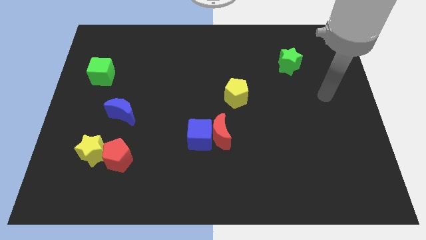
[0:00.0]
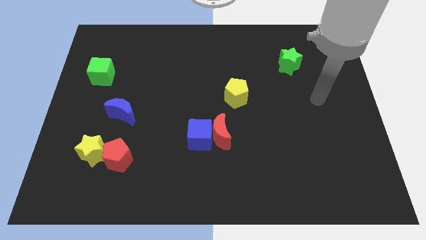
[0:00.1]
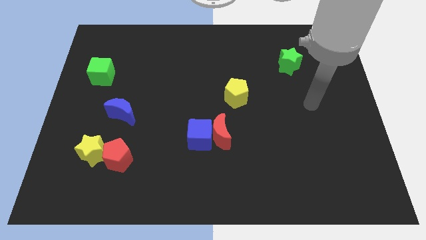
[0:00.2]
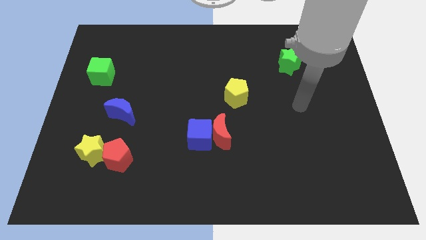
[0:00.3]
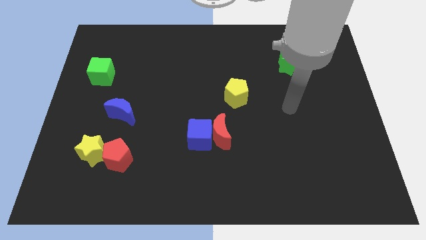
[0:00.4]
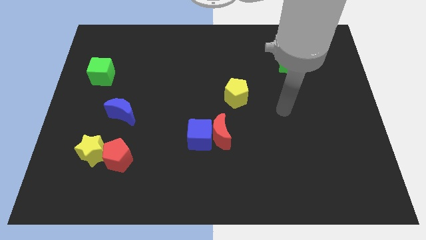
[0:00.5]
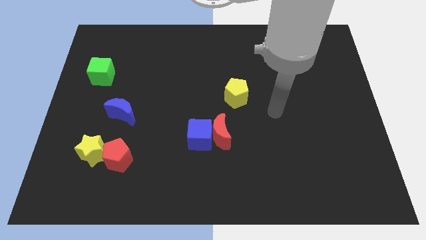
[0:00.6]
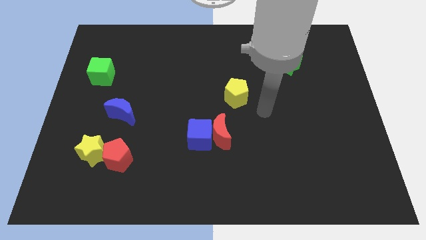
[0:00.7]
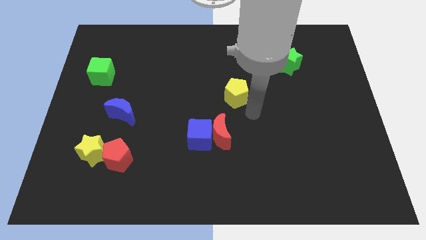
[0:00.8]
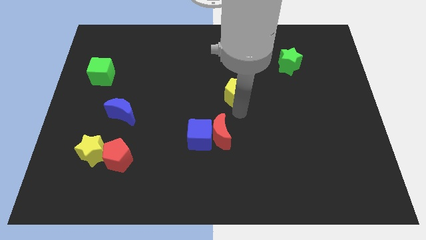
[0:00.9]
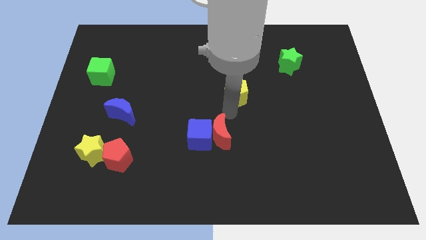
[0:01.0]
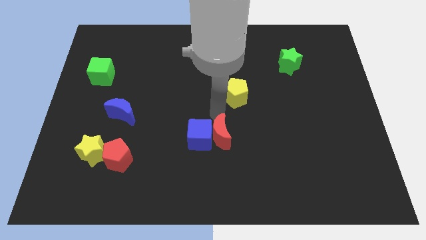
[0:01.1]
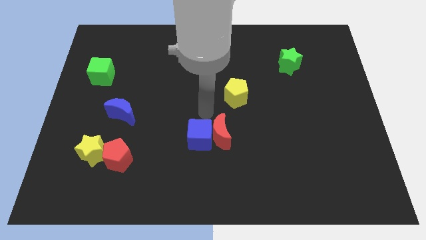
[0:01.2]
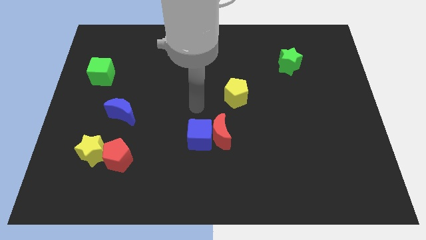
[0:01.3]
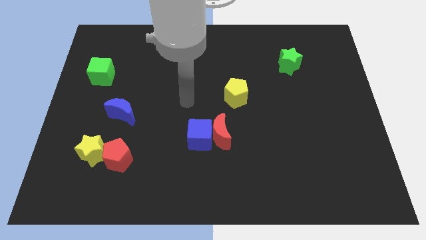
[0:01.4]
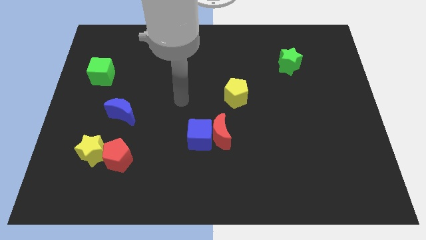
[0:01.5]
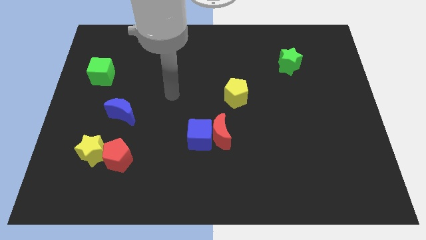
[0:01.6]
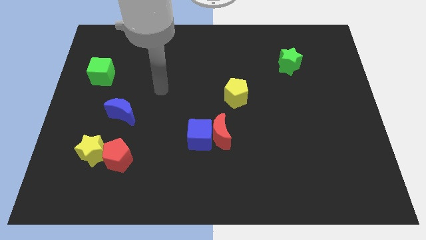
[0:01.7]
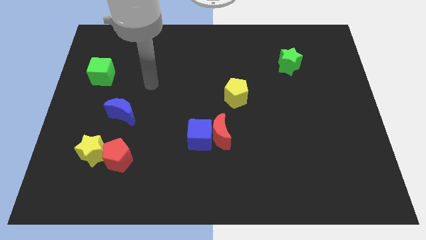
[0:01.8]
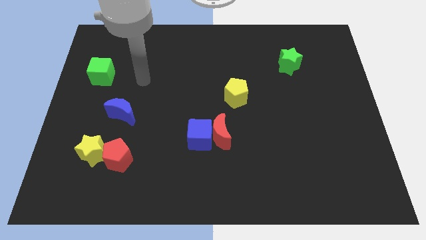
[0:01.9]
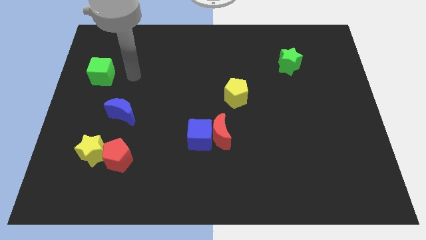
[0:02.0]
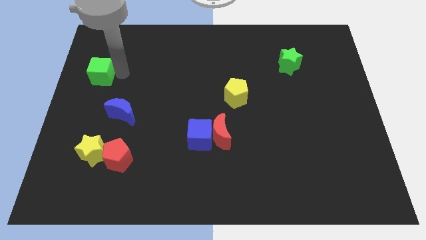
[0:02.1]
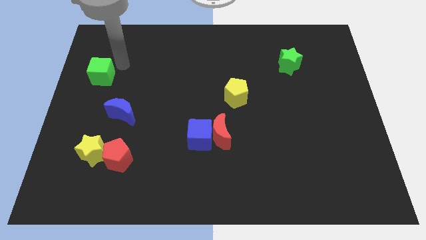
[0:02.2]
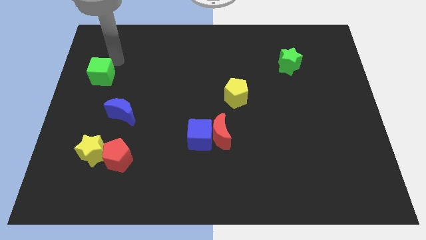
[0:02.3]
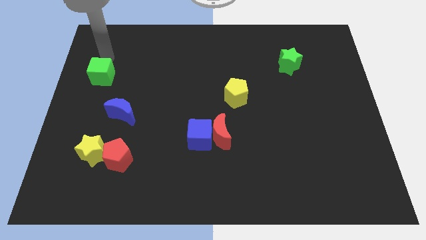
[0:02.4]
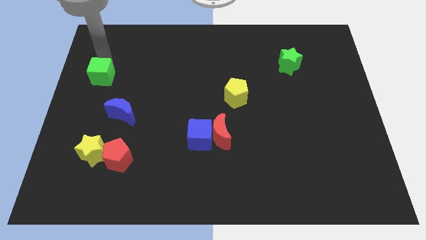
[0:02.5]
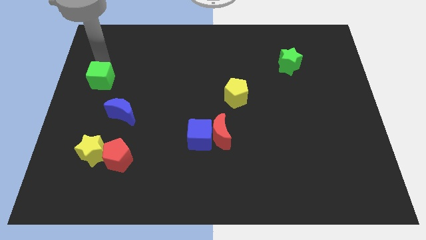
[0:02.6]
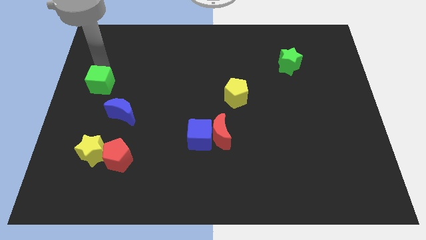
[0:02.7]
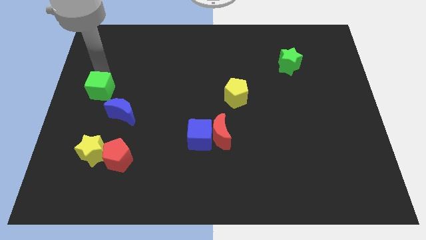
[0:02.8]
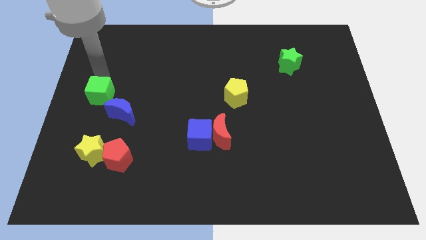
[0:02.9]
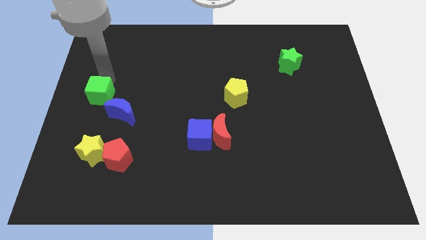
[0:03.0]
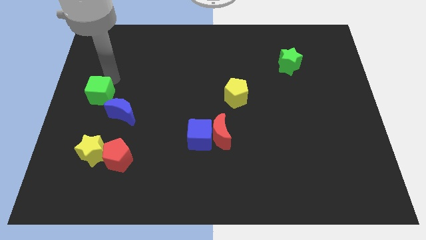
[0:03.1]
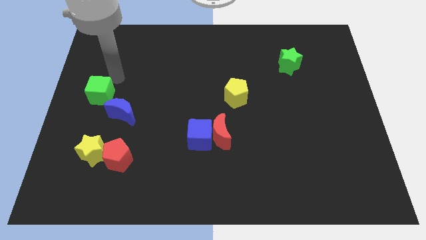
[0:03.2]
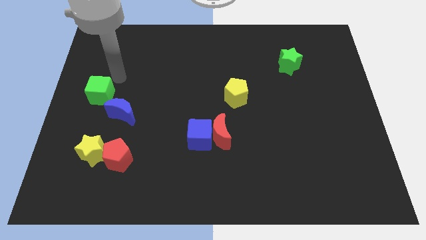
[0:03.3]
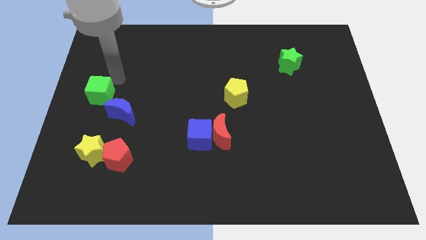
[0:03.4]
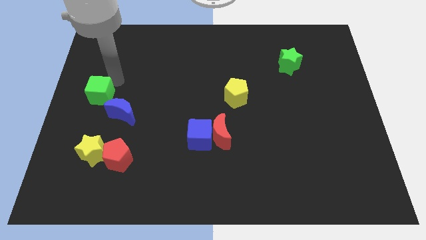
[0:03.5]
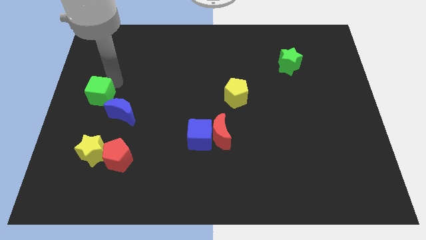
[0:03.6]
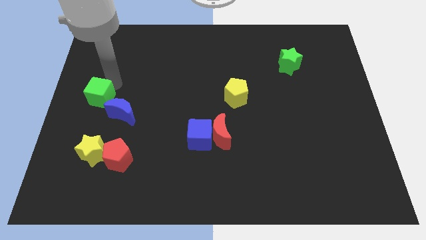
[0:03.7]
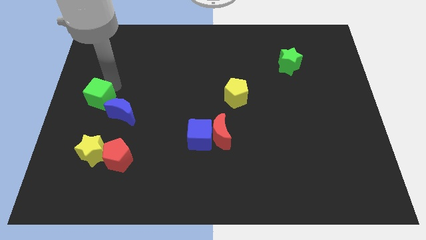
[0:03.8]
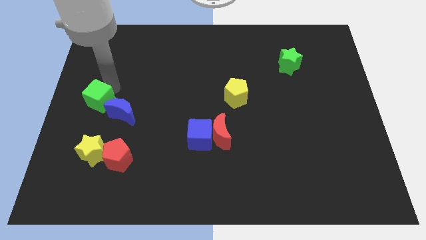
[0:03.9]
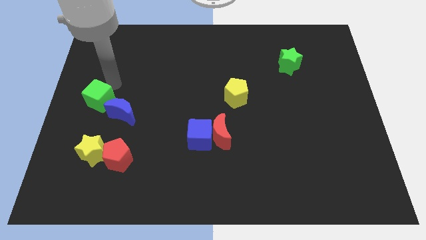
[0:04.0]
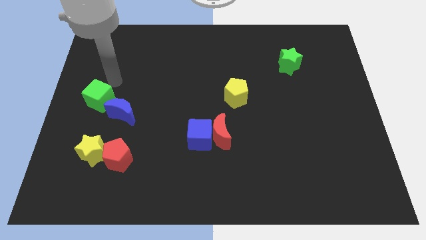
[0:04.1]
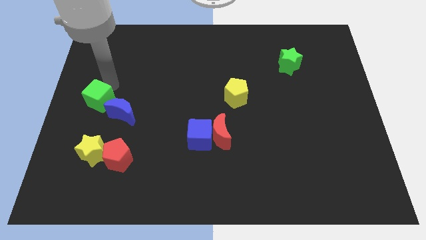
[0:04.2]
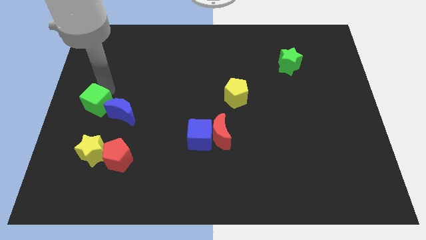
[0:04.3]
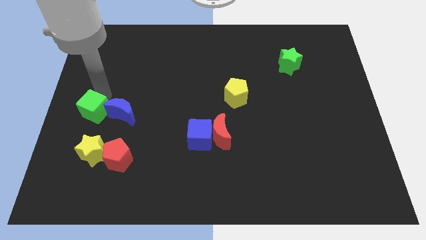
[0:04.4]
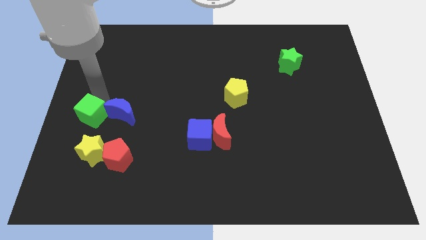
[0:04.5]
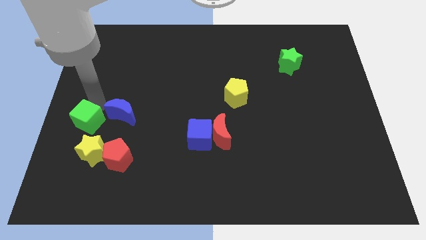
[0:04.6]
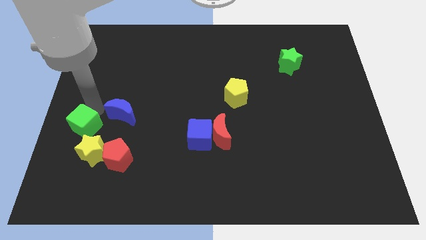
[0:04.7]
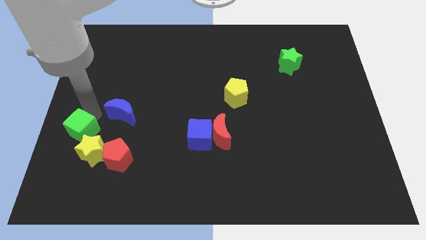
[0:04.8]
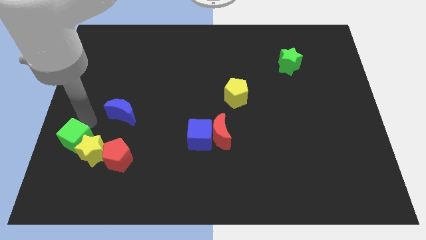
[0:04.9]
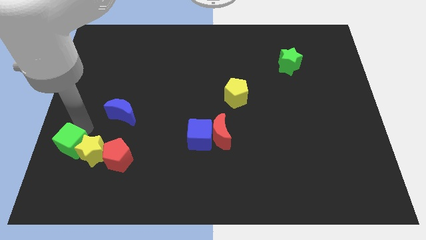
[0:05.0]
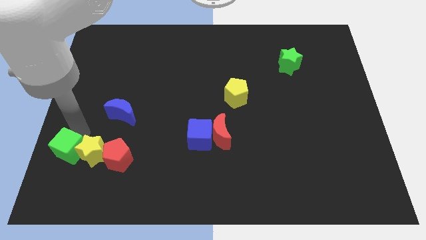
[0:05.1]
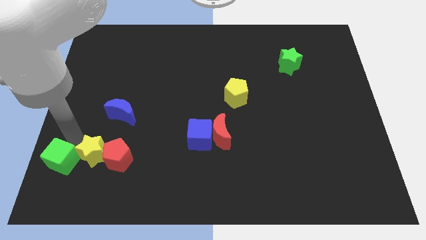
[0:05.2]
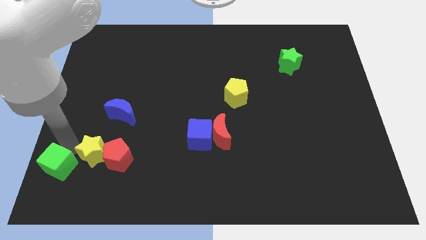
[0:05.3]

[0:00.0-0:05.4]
put the green cube to the bottom left of the board
